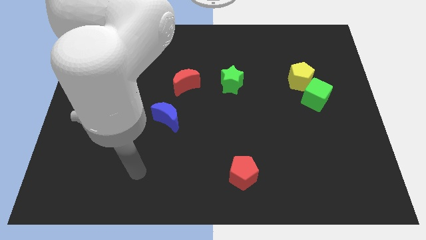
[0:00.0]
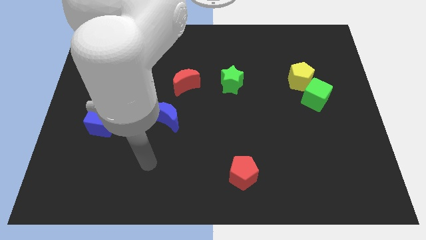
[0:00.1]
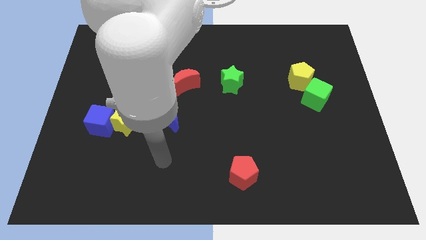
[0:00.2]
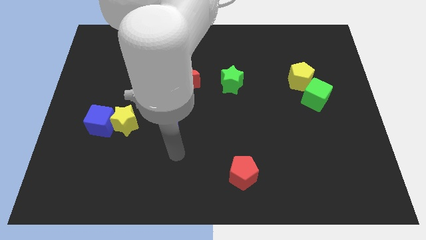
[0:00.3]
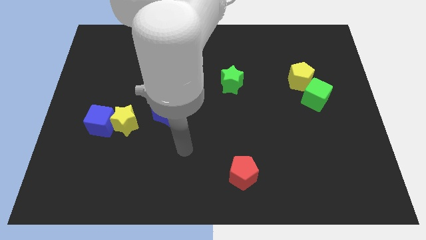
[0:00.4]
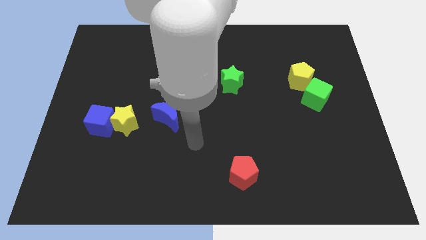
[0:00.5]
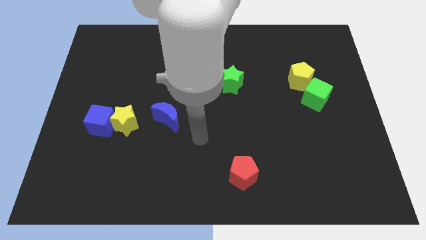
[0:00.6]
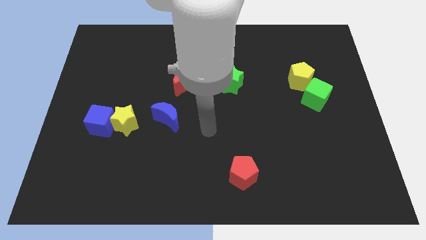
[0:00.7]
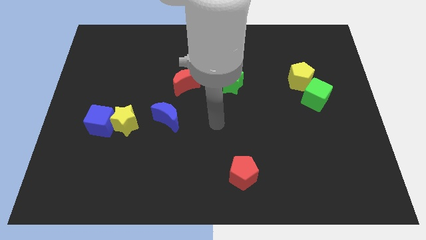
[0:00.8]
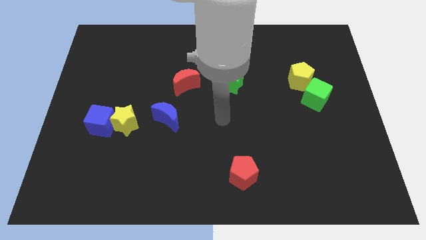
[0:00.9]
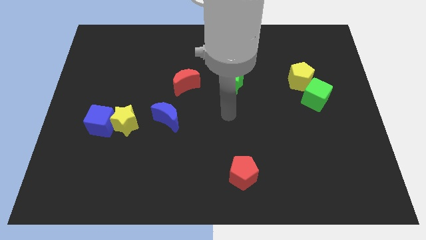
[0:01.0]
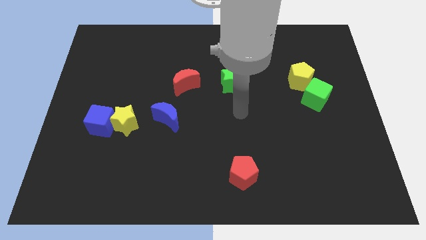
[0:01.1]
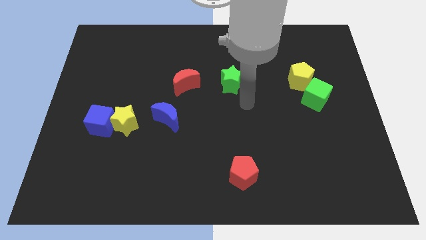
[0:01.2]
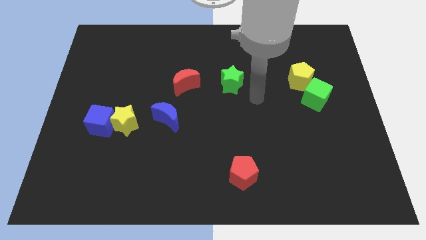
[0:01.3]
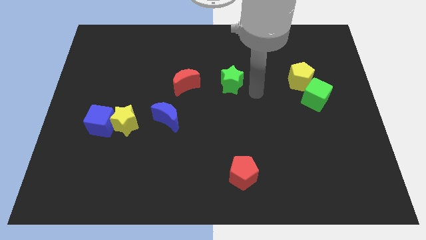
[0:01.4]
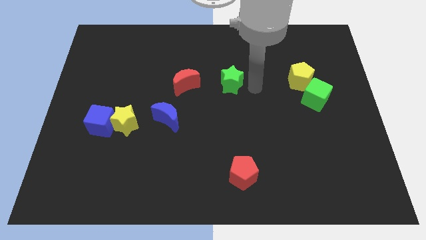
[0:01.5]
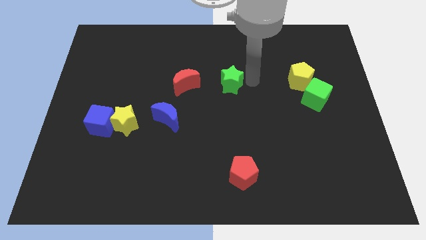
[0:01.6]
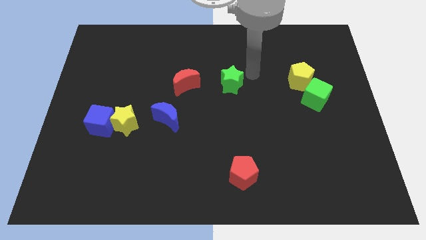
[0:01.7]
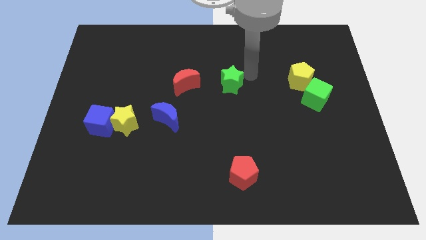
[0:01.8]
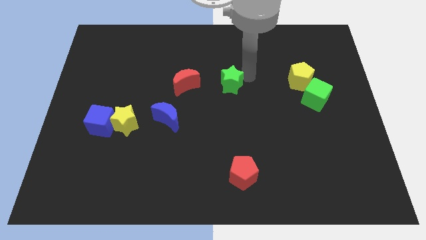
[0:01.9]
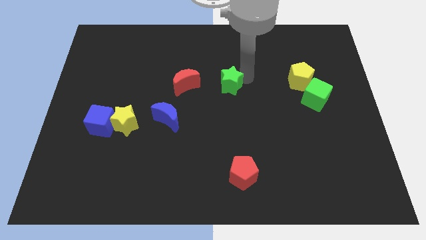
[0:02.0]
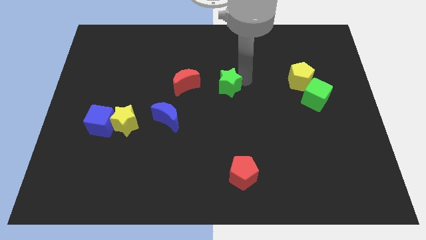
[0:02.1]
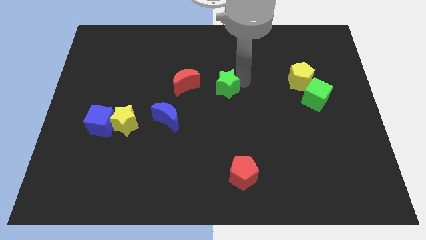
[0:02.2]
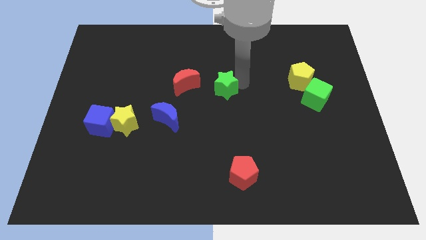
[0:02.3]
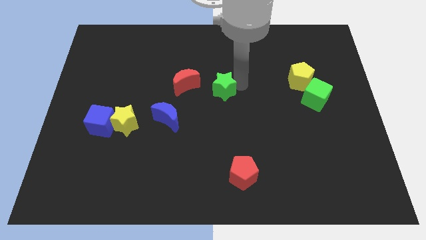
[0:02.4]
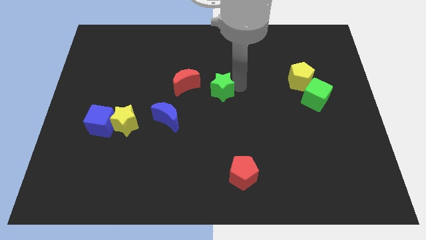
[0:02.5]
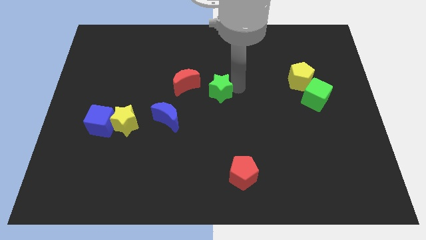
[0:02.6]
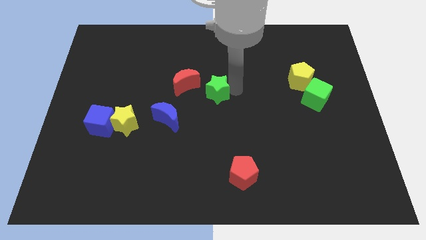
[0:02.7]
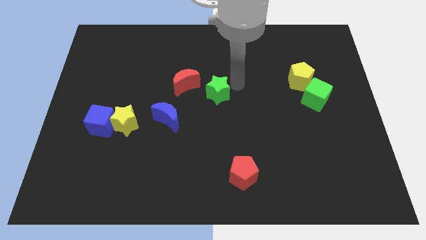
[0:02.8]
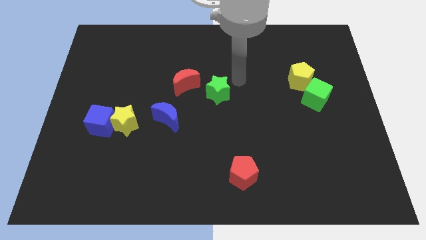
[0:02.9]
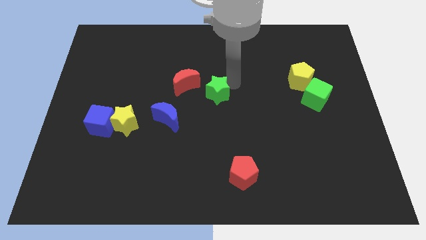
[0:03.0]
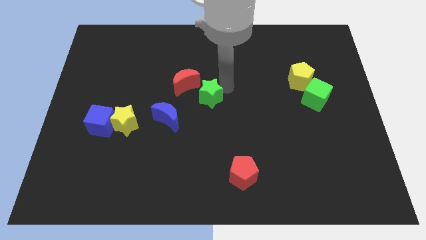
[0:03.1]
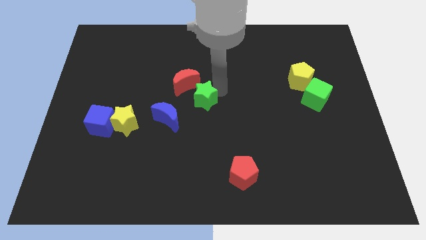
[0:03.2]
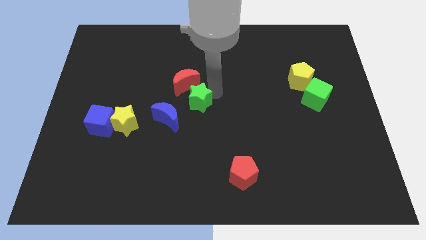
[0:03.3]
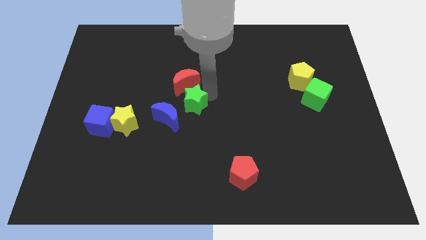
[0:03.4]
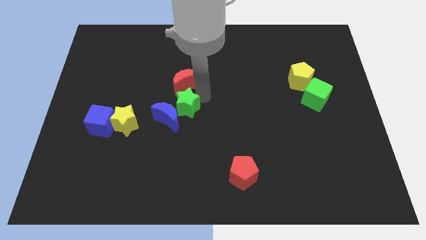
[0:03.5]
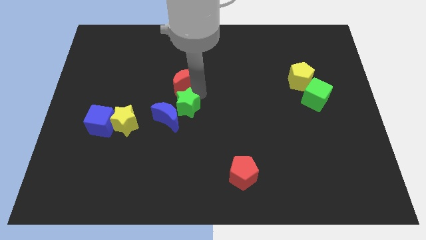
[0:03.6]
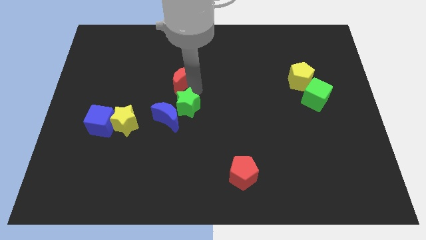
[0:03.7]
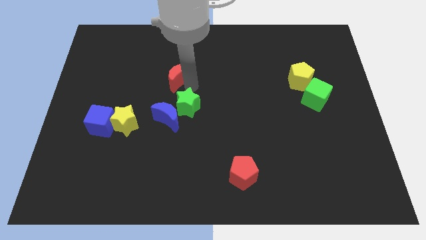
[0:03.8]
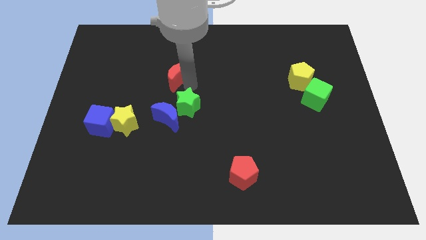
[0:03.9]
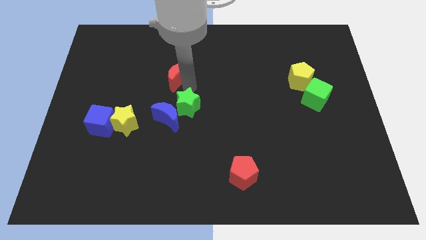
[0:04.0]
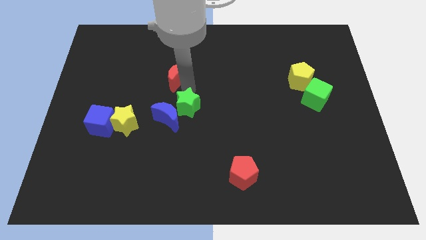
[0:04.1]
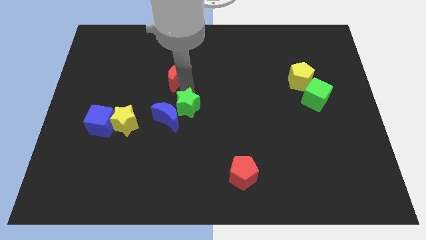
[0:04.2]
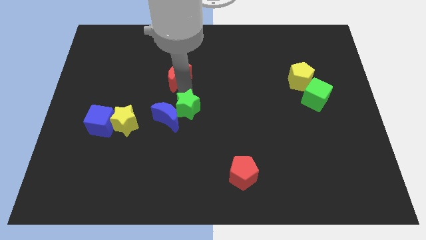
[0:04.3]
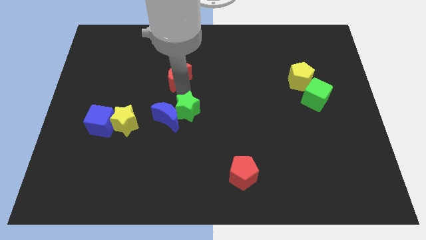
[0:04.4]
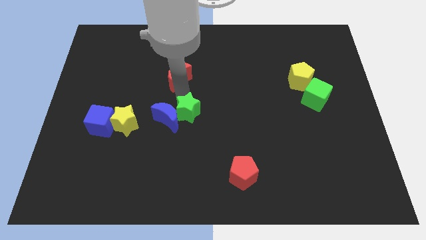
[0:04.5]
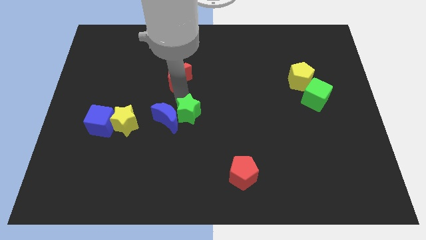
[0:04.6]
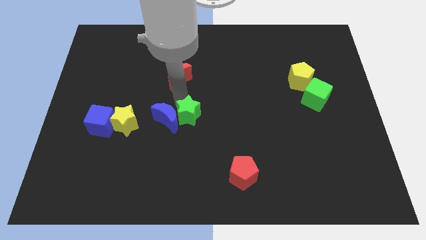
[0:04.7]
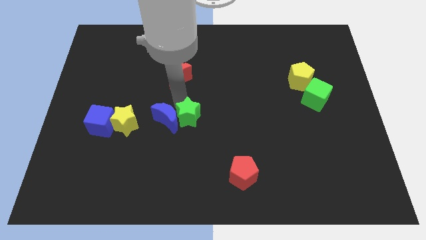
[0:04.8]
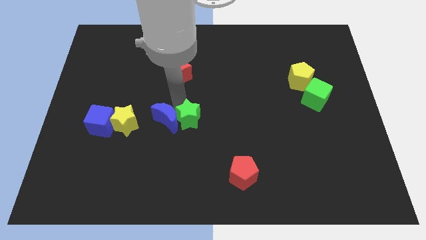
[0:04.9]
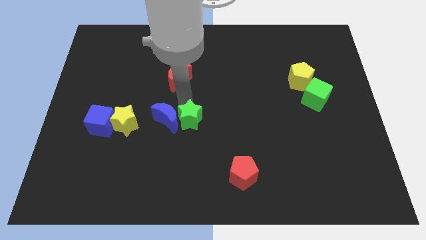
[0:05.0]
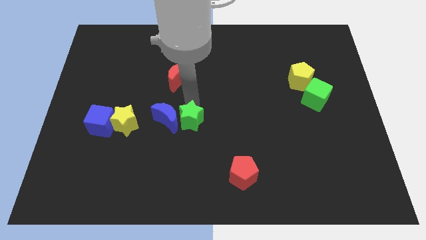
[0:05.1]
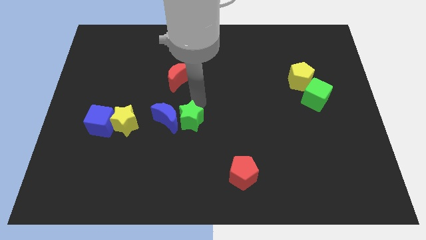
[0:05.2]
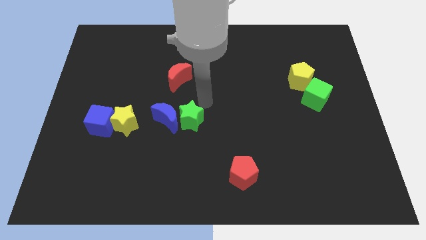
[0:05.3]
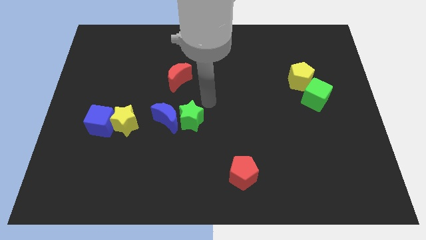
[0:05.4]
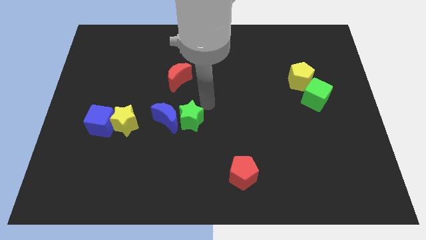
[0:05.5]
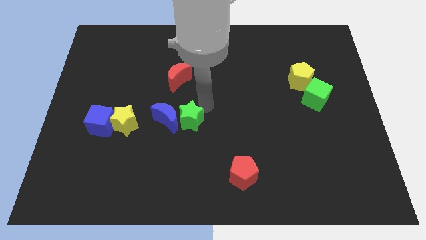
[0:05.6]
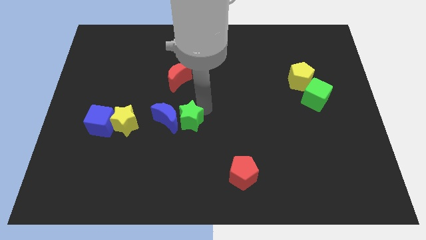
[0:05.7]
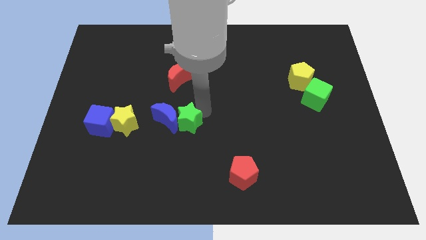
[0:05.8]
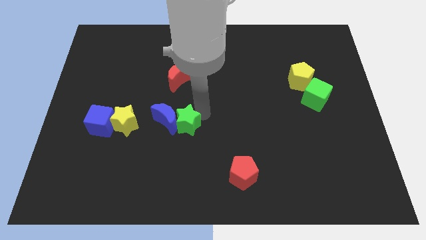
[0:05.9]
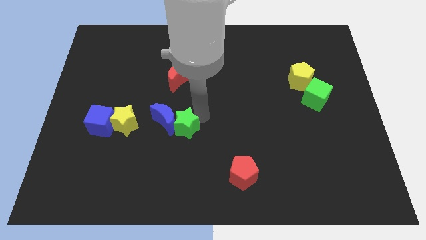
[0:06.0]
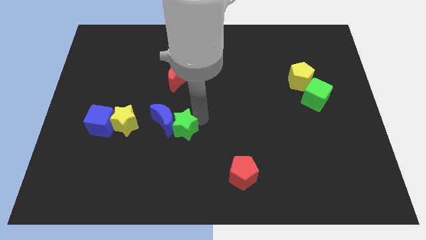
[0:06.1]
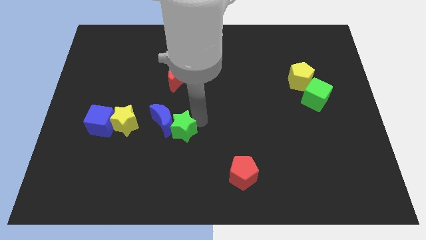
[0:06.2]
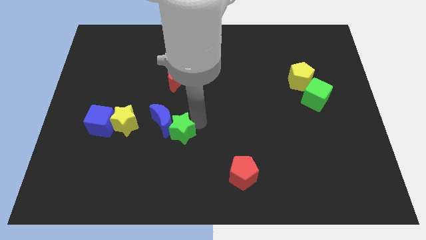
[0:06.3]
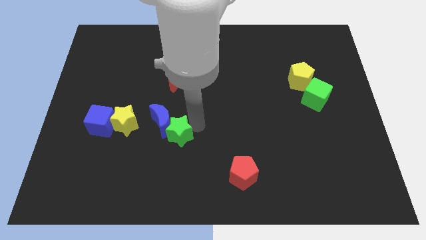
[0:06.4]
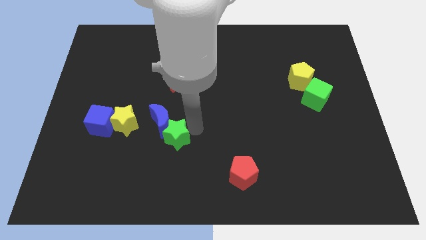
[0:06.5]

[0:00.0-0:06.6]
move the green star diagonally down and left

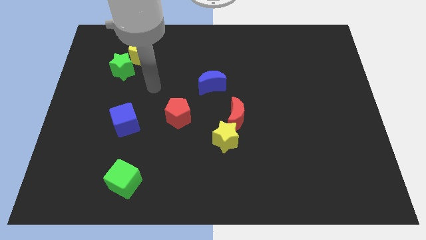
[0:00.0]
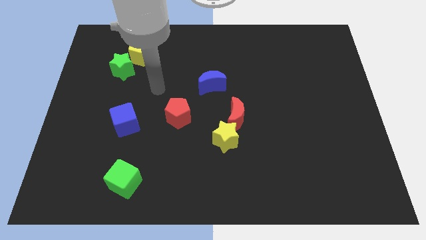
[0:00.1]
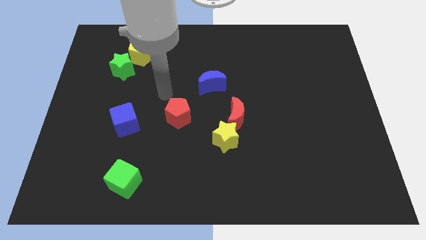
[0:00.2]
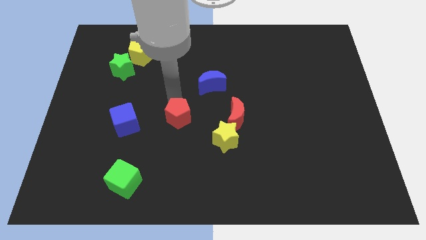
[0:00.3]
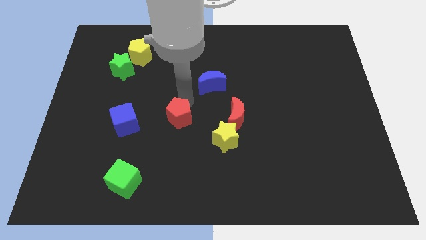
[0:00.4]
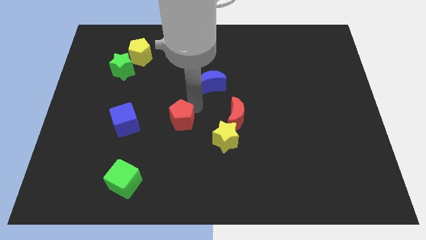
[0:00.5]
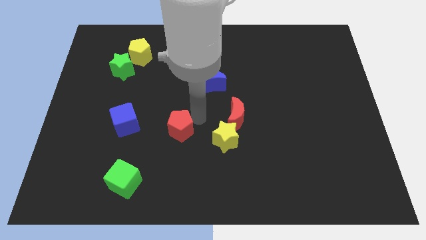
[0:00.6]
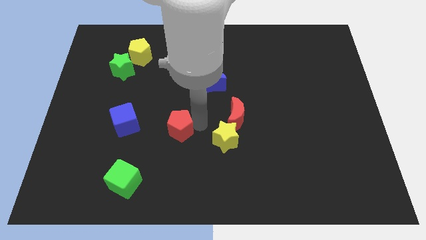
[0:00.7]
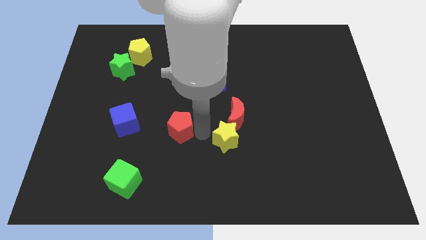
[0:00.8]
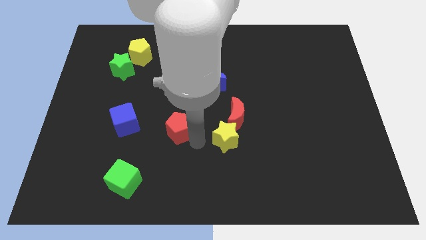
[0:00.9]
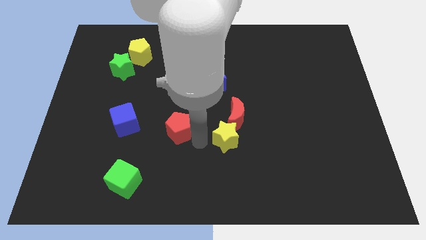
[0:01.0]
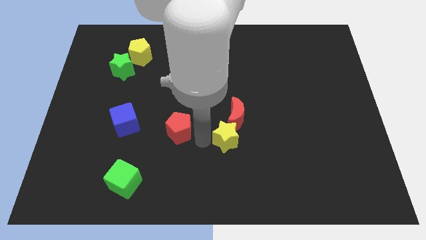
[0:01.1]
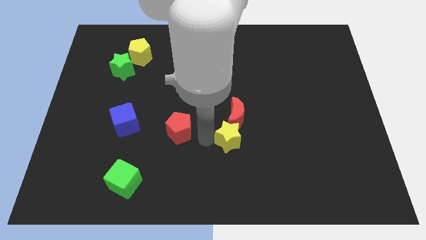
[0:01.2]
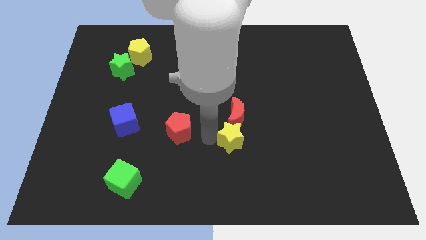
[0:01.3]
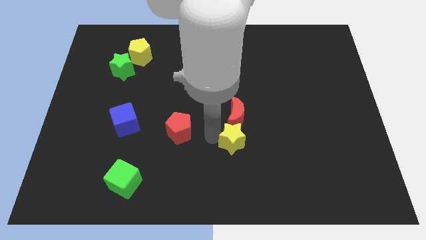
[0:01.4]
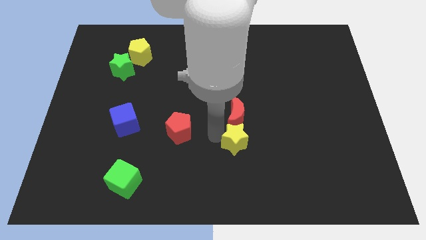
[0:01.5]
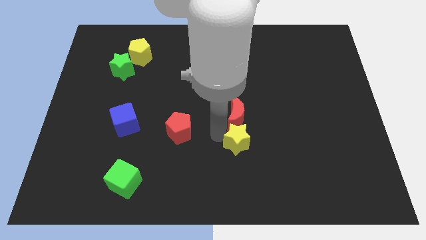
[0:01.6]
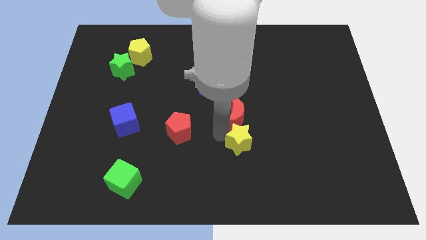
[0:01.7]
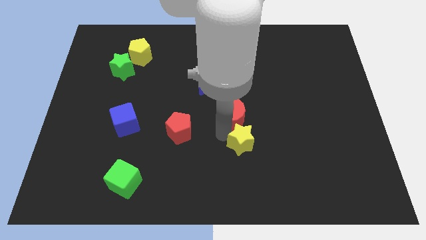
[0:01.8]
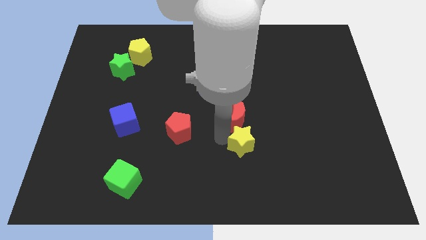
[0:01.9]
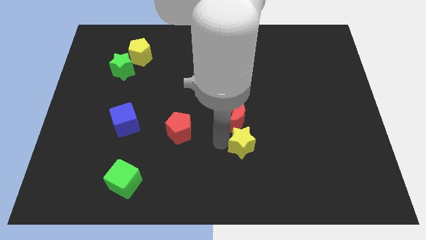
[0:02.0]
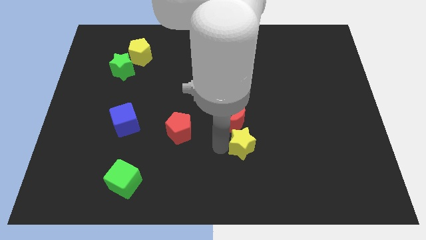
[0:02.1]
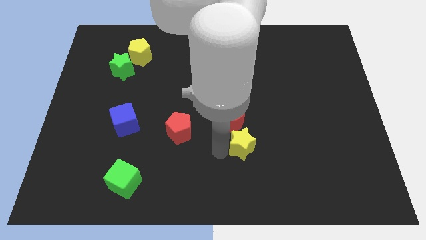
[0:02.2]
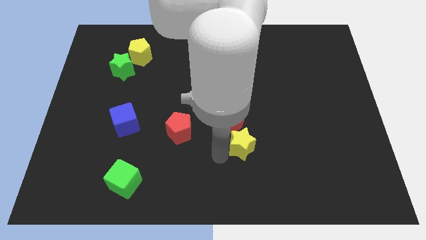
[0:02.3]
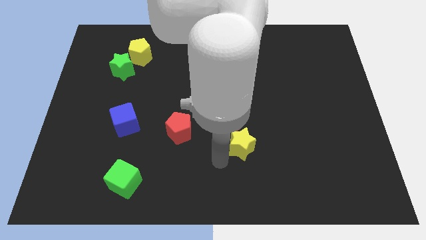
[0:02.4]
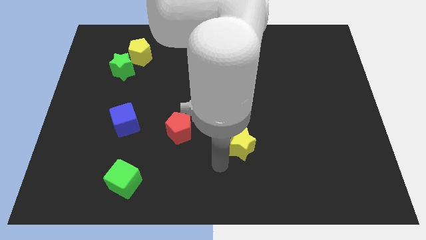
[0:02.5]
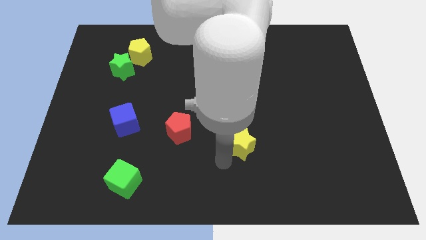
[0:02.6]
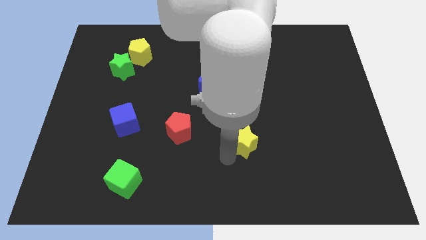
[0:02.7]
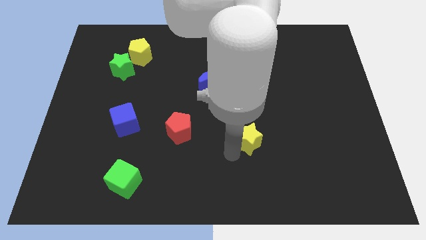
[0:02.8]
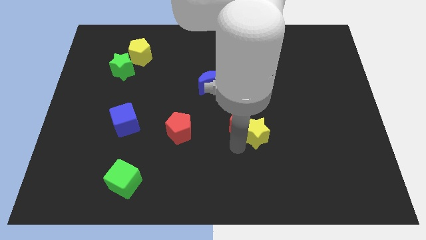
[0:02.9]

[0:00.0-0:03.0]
move the yellow star somewhat to the right
